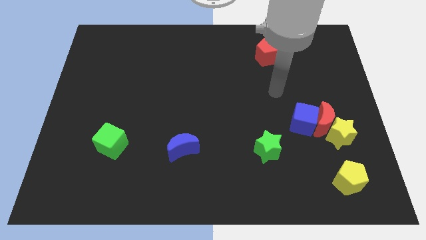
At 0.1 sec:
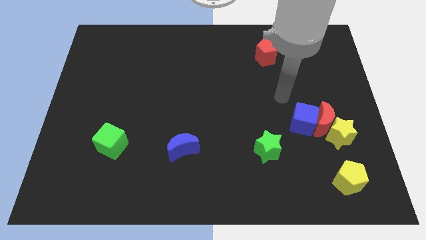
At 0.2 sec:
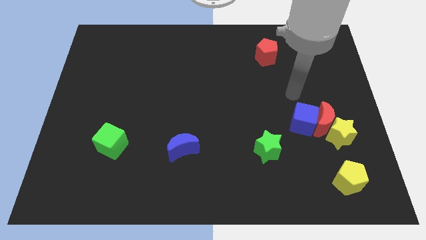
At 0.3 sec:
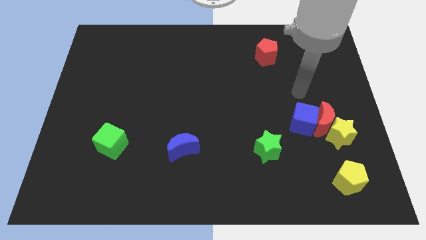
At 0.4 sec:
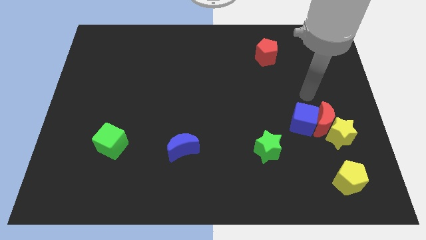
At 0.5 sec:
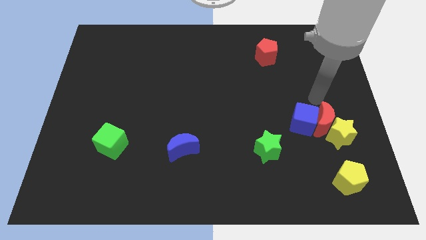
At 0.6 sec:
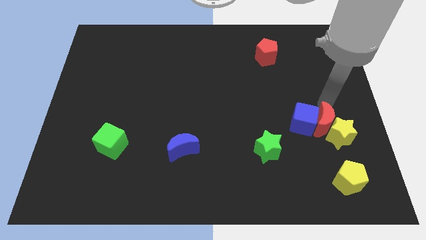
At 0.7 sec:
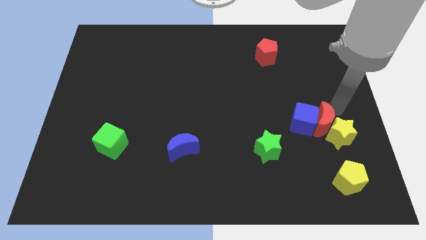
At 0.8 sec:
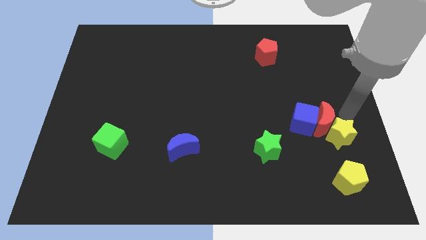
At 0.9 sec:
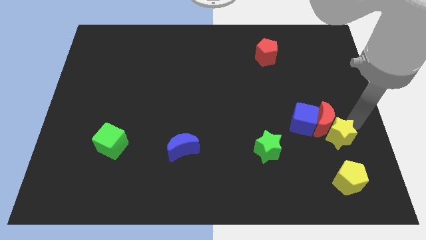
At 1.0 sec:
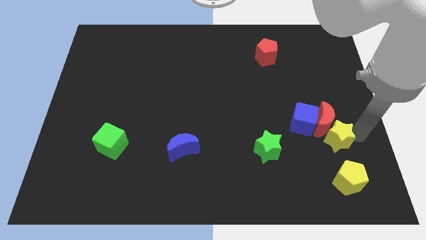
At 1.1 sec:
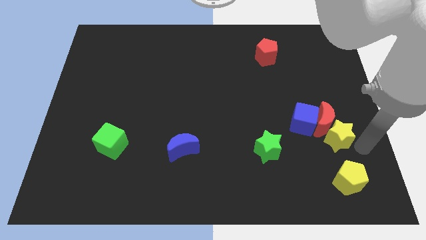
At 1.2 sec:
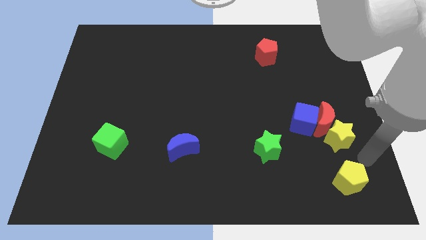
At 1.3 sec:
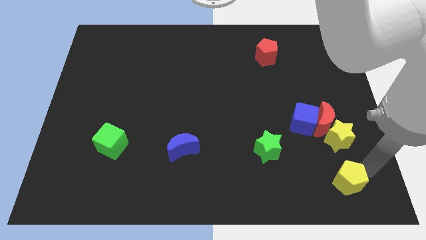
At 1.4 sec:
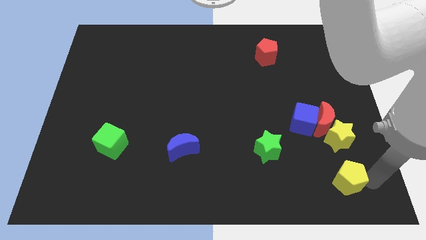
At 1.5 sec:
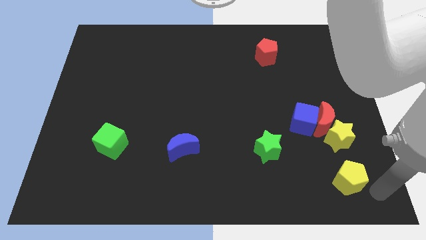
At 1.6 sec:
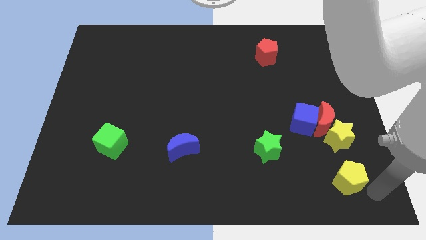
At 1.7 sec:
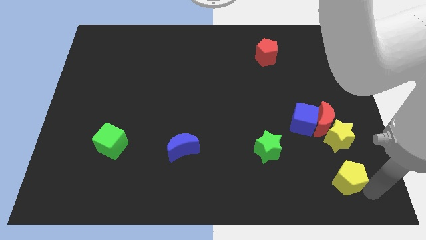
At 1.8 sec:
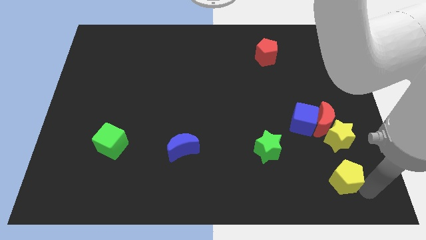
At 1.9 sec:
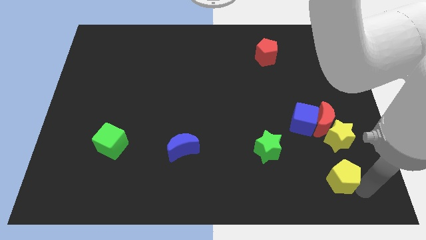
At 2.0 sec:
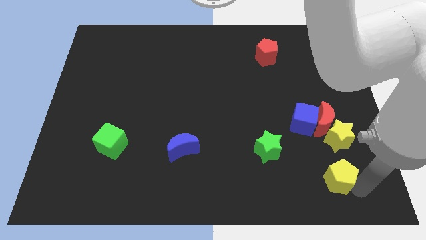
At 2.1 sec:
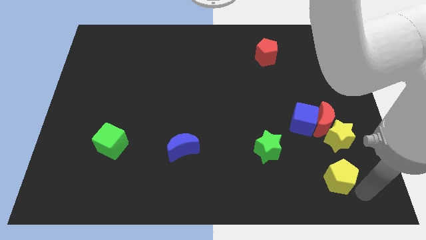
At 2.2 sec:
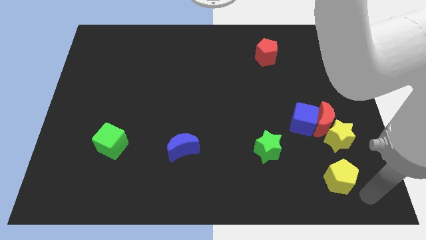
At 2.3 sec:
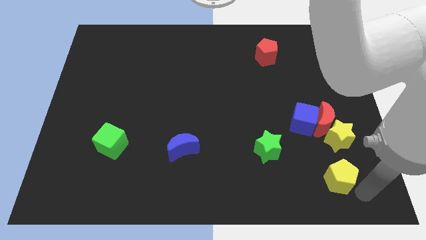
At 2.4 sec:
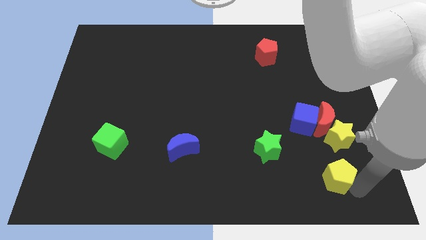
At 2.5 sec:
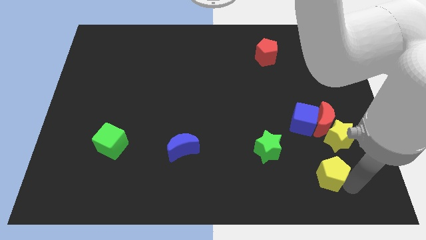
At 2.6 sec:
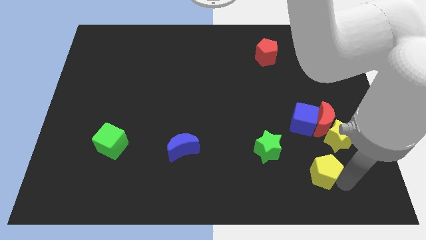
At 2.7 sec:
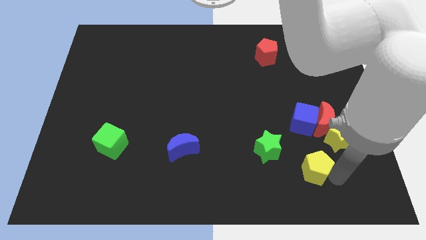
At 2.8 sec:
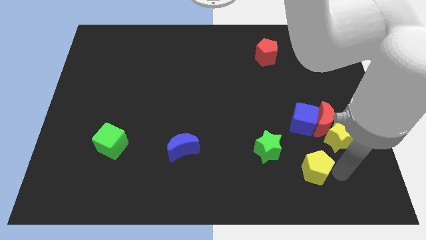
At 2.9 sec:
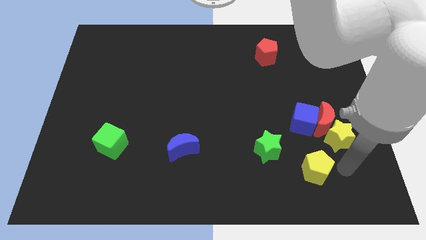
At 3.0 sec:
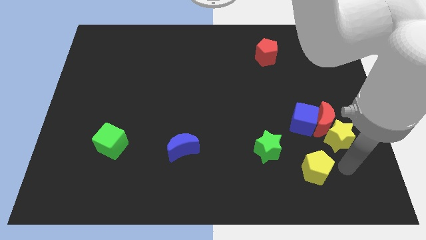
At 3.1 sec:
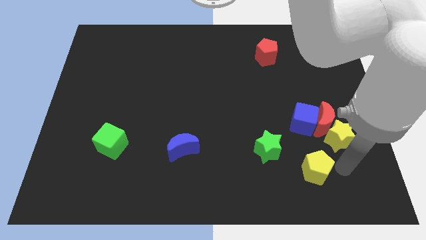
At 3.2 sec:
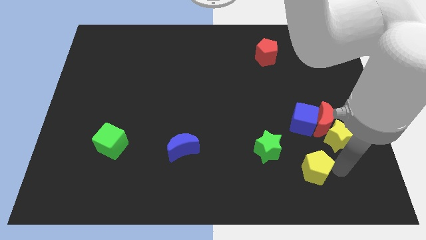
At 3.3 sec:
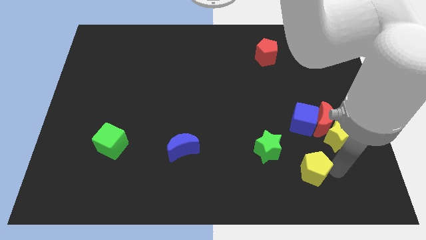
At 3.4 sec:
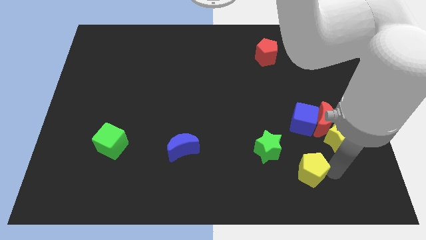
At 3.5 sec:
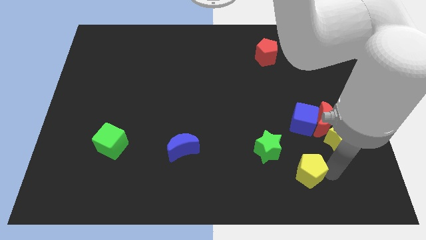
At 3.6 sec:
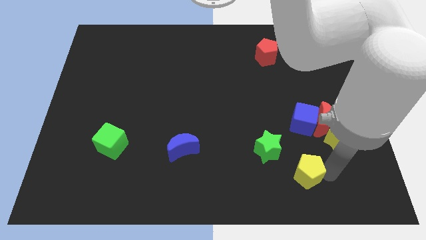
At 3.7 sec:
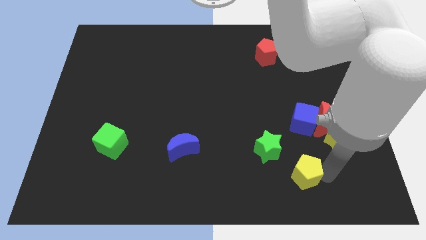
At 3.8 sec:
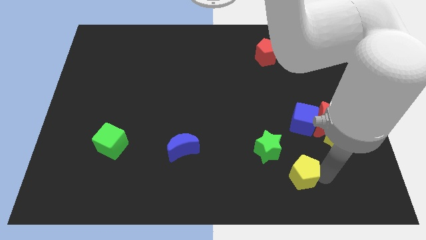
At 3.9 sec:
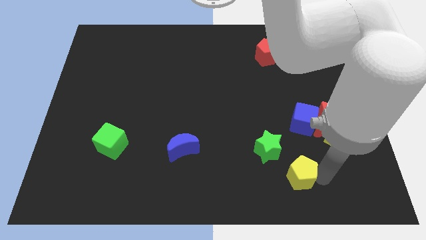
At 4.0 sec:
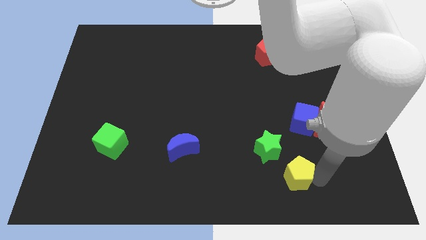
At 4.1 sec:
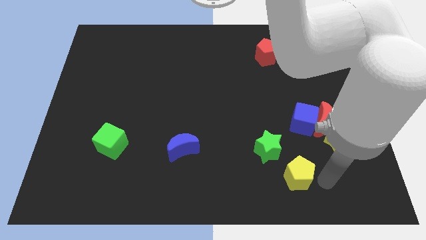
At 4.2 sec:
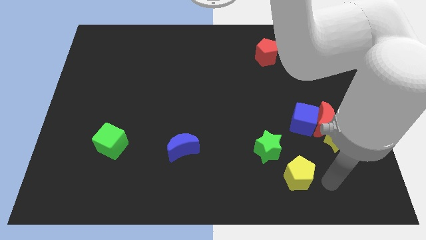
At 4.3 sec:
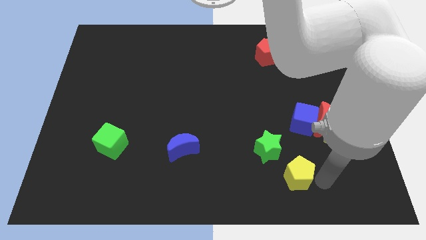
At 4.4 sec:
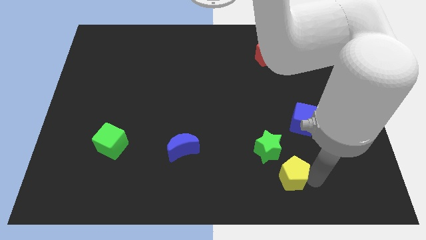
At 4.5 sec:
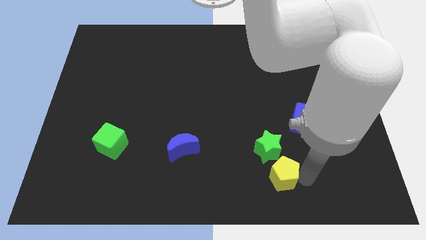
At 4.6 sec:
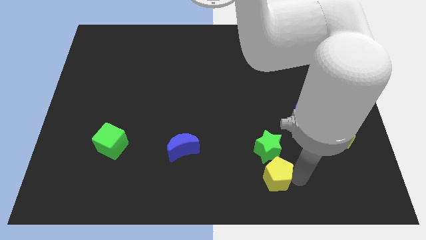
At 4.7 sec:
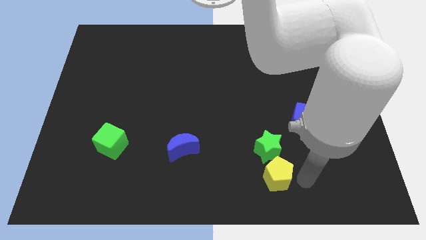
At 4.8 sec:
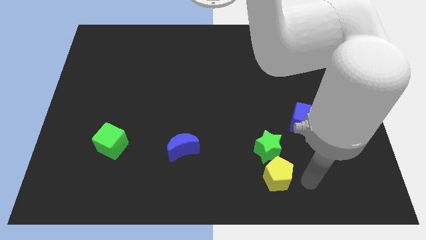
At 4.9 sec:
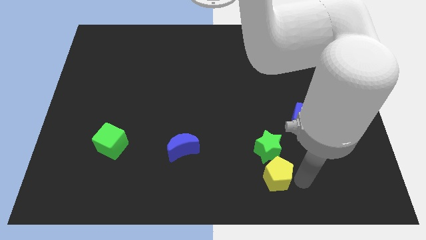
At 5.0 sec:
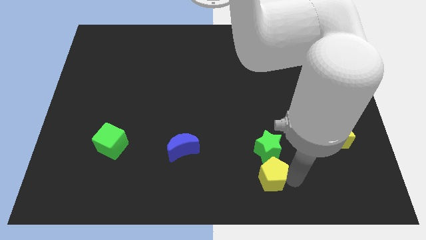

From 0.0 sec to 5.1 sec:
move the yellow pentagon diagonally down and to the left of the green star

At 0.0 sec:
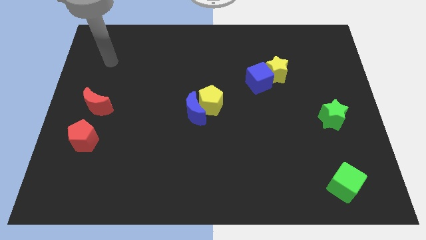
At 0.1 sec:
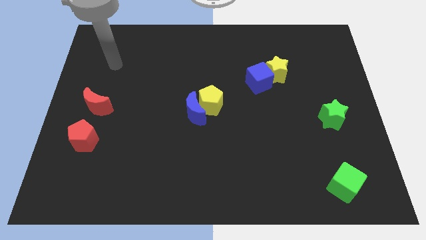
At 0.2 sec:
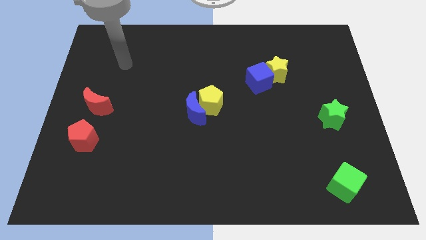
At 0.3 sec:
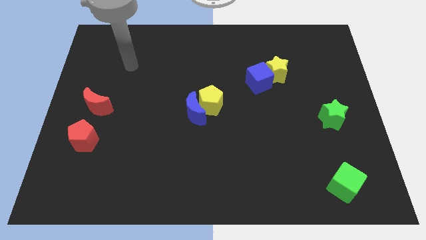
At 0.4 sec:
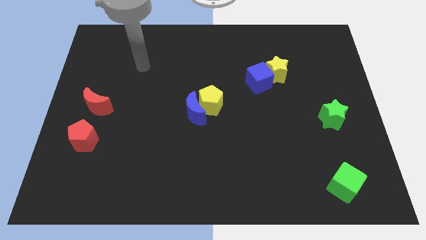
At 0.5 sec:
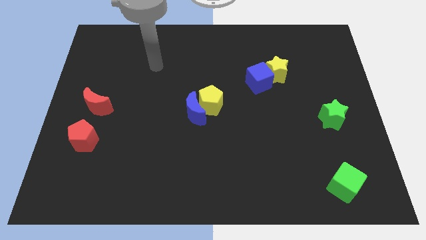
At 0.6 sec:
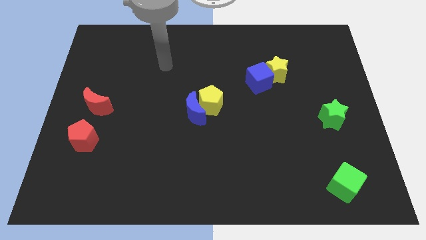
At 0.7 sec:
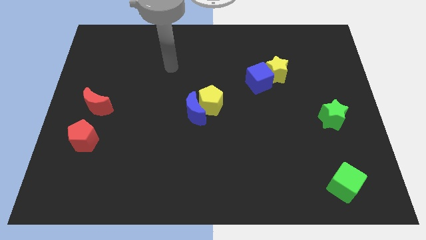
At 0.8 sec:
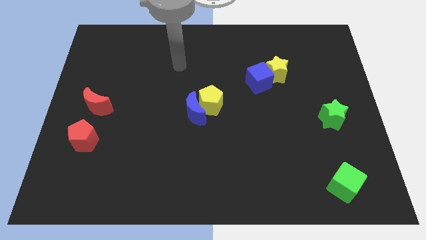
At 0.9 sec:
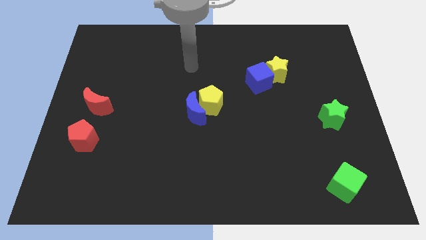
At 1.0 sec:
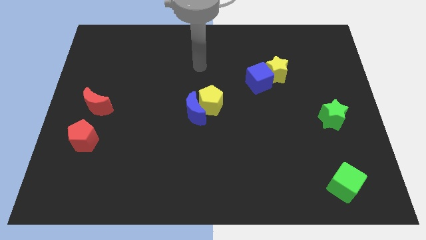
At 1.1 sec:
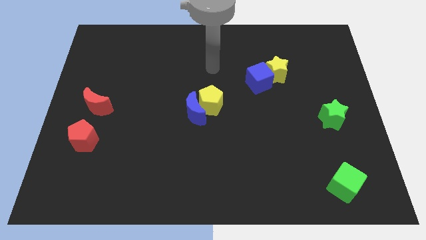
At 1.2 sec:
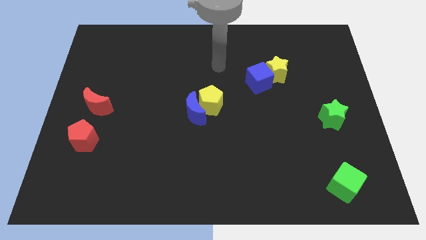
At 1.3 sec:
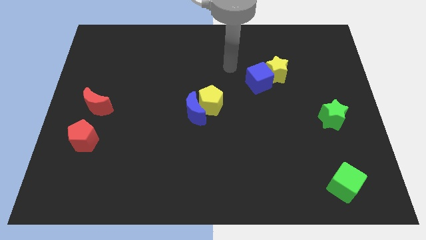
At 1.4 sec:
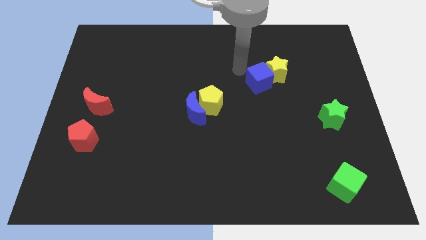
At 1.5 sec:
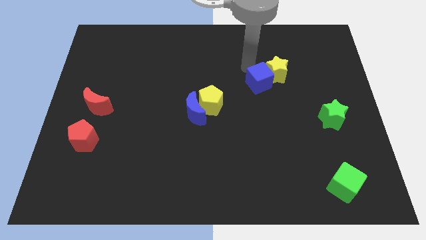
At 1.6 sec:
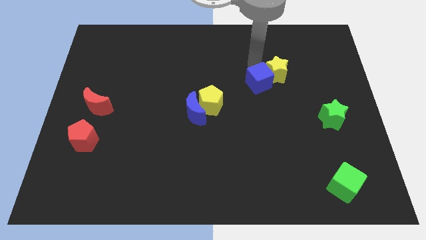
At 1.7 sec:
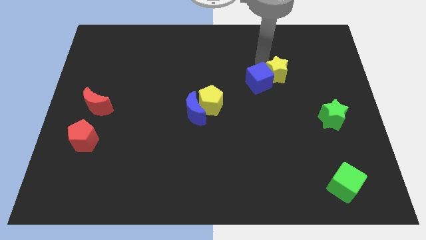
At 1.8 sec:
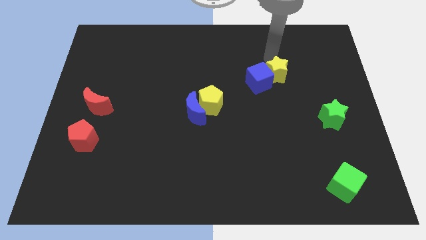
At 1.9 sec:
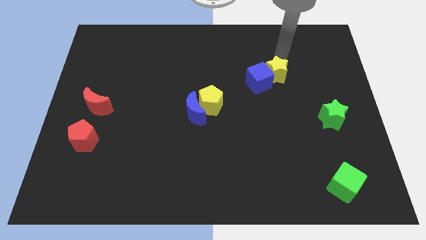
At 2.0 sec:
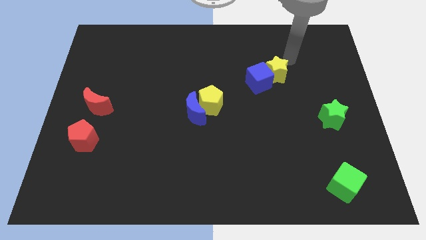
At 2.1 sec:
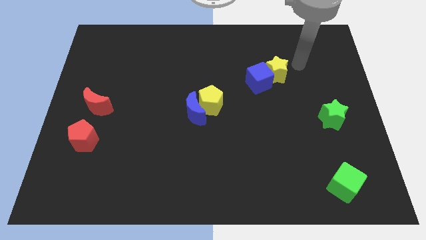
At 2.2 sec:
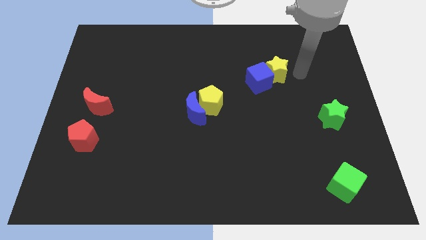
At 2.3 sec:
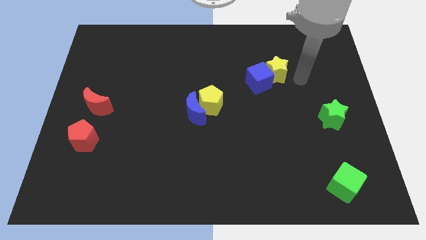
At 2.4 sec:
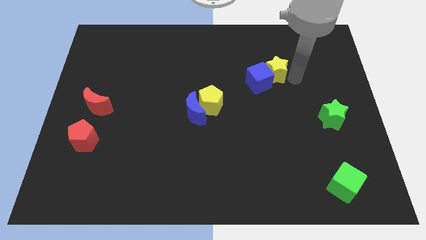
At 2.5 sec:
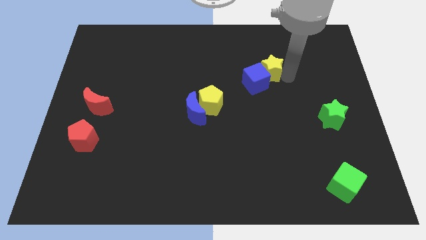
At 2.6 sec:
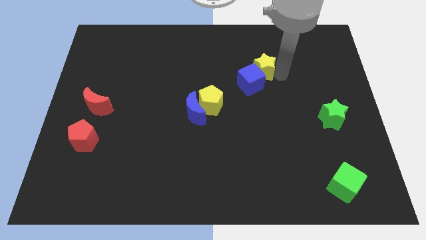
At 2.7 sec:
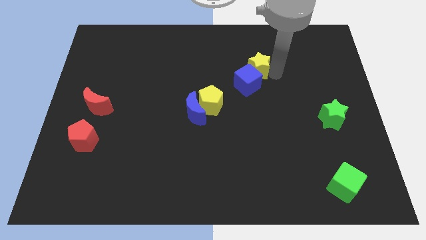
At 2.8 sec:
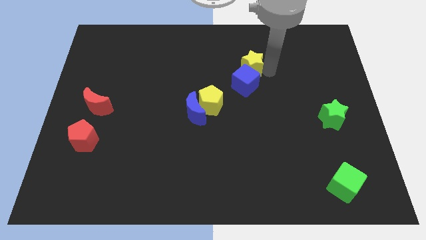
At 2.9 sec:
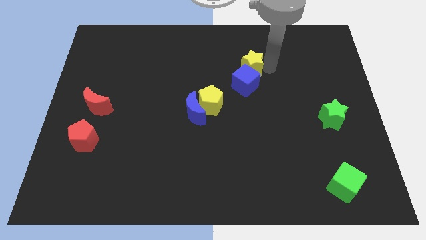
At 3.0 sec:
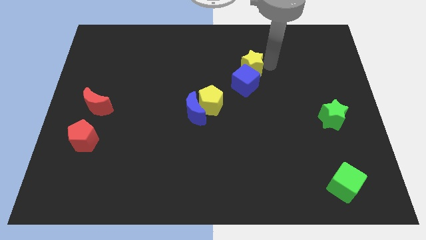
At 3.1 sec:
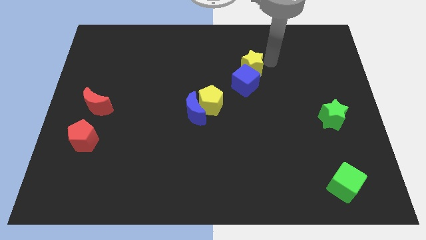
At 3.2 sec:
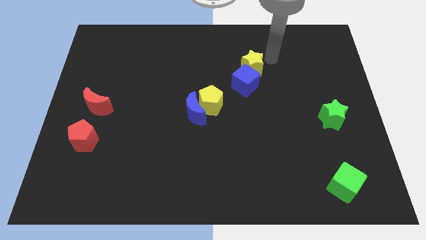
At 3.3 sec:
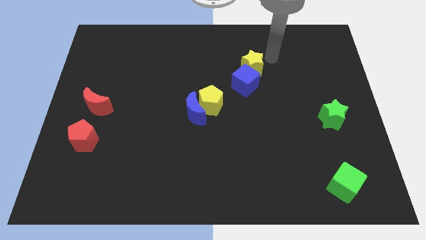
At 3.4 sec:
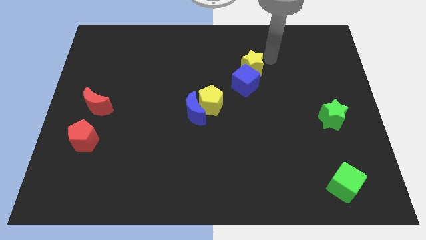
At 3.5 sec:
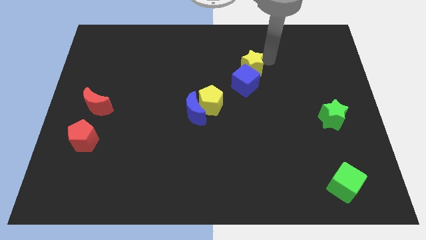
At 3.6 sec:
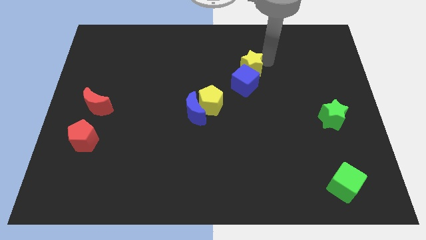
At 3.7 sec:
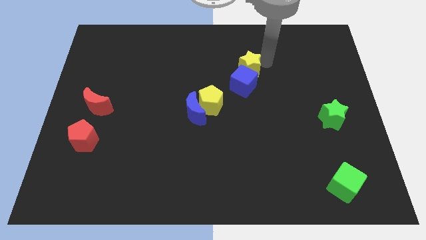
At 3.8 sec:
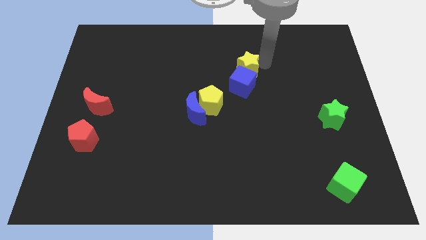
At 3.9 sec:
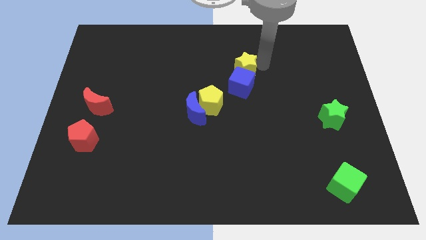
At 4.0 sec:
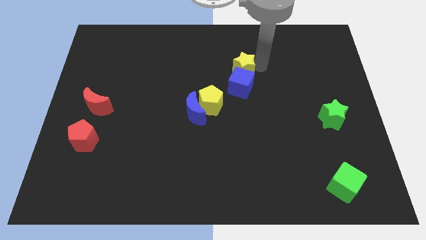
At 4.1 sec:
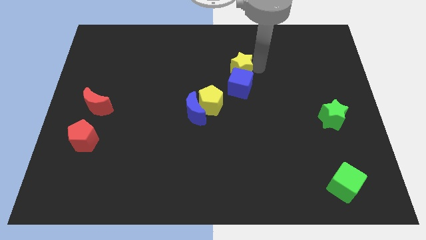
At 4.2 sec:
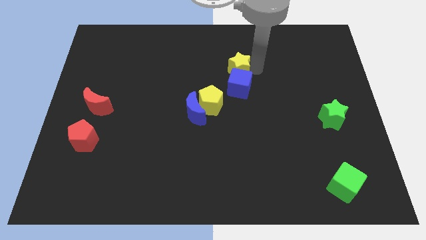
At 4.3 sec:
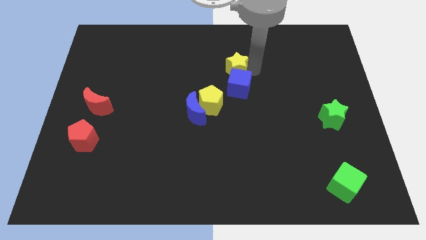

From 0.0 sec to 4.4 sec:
push the yellow star to the top right of the yellow pentagon
